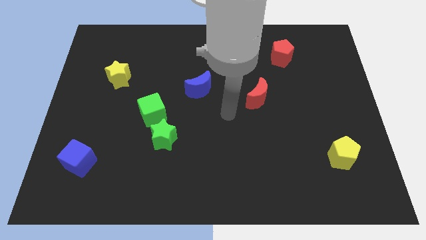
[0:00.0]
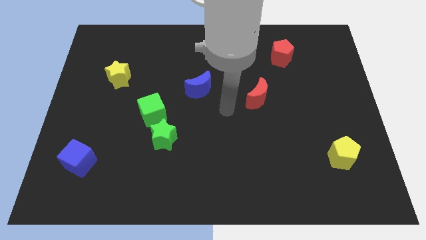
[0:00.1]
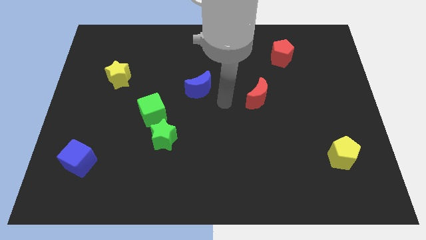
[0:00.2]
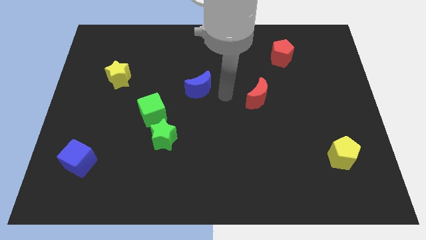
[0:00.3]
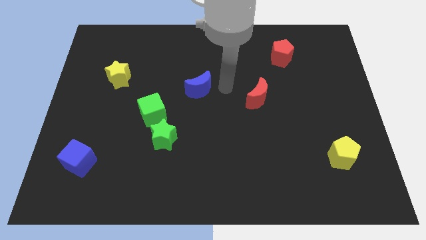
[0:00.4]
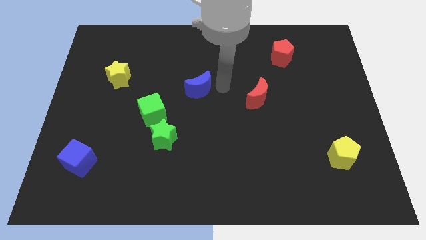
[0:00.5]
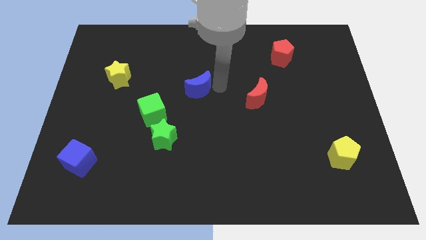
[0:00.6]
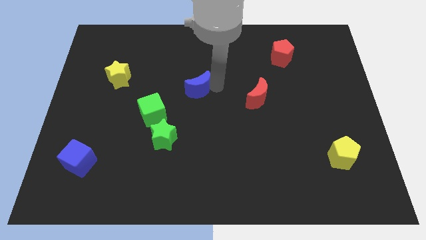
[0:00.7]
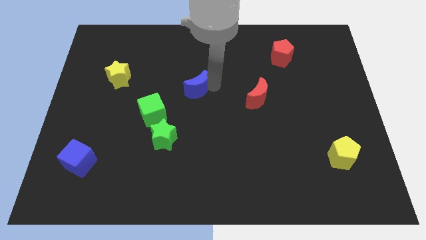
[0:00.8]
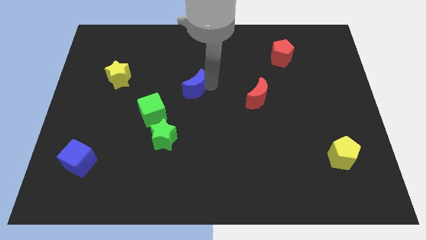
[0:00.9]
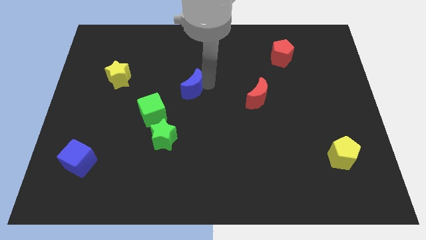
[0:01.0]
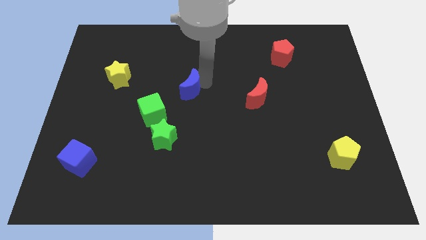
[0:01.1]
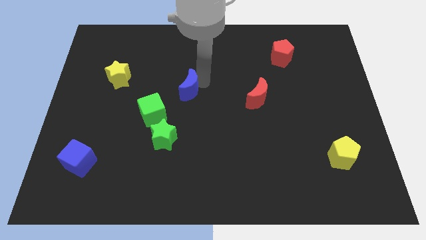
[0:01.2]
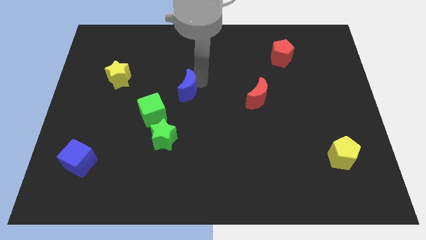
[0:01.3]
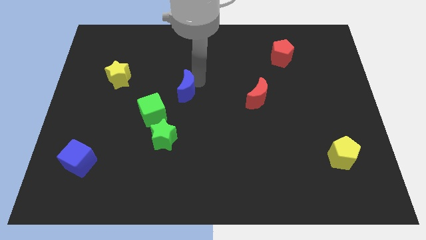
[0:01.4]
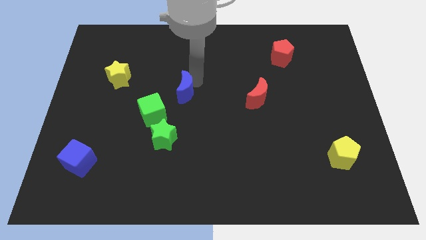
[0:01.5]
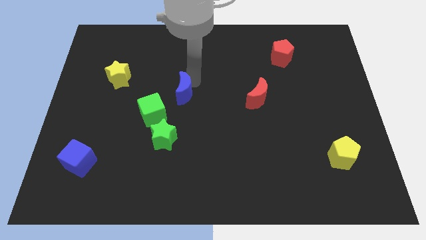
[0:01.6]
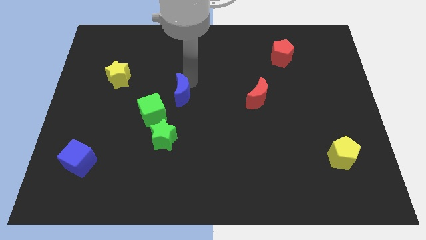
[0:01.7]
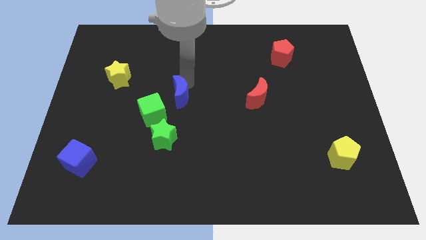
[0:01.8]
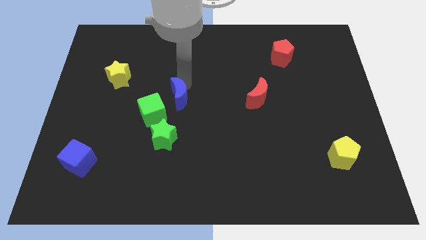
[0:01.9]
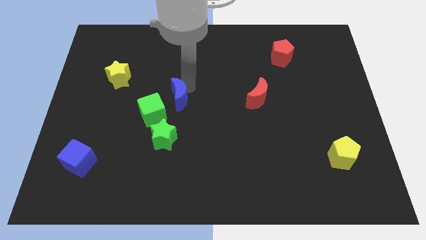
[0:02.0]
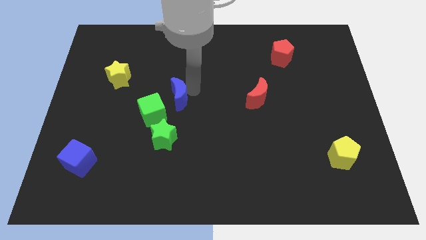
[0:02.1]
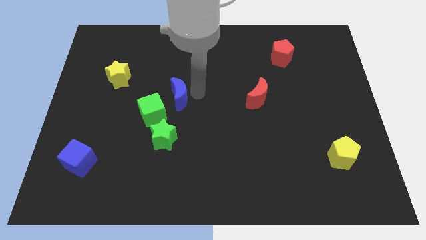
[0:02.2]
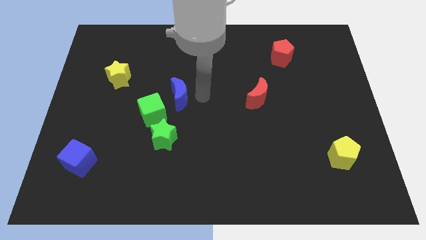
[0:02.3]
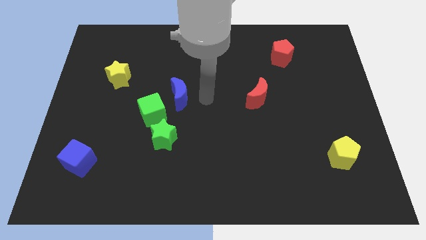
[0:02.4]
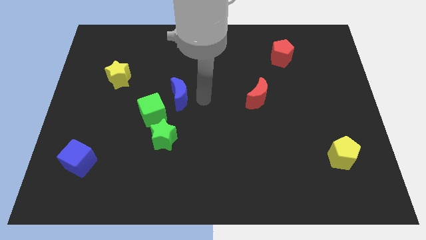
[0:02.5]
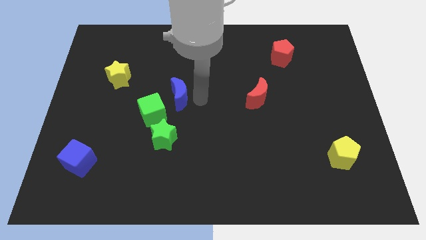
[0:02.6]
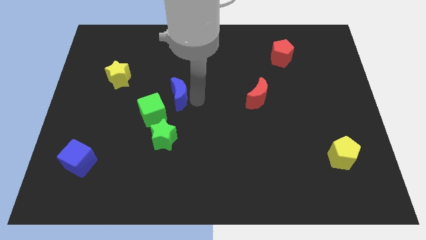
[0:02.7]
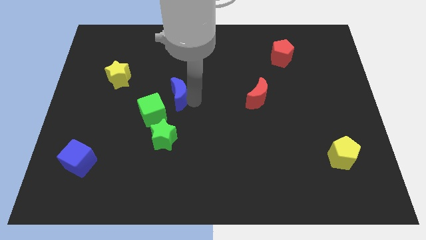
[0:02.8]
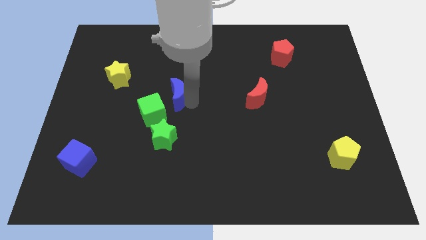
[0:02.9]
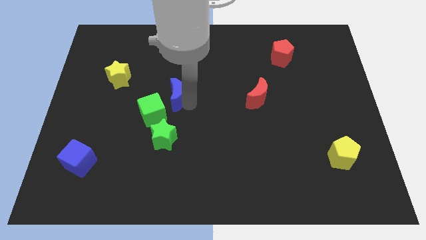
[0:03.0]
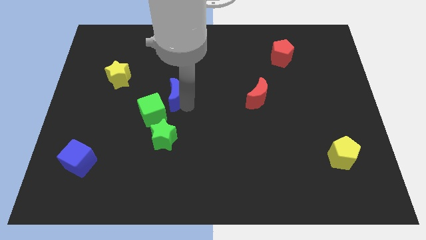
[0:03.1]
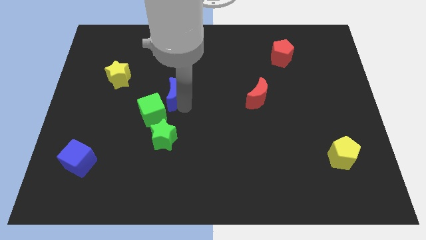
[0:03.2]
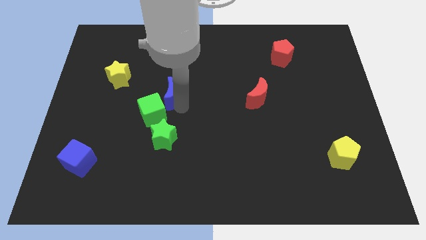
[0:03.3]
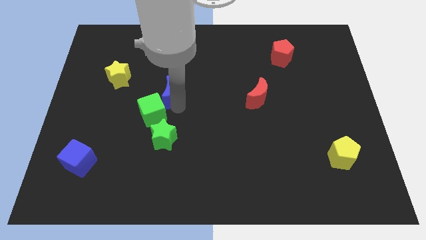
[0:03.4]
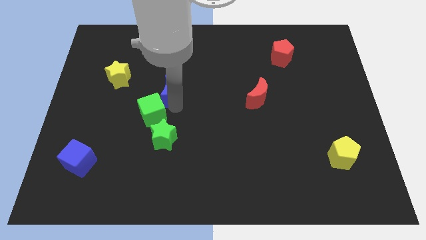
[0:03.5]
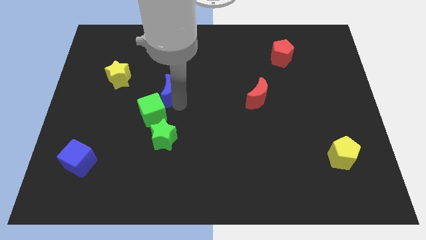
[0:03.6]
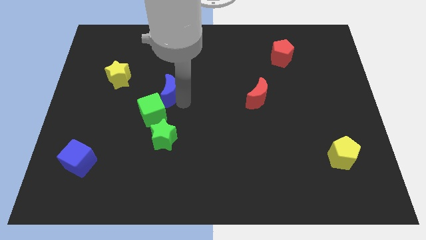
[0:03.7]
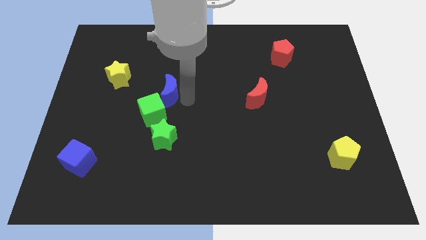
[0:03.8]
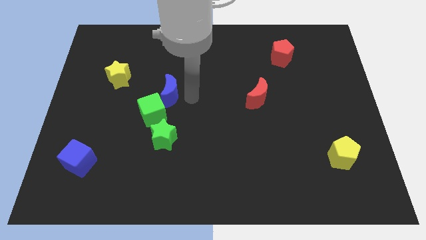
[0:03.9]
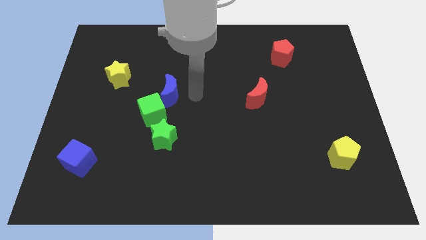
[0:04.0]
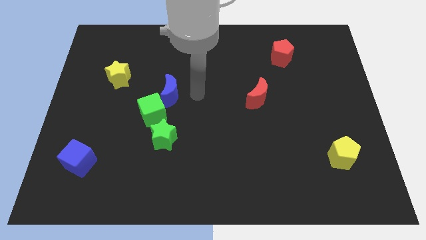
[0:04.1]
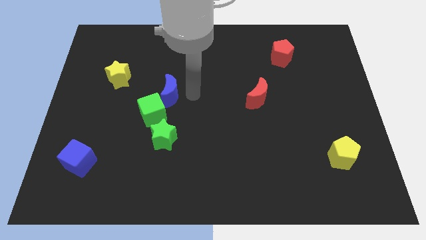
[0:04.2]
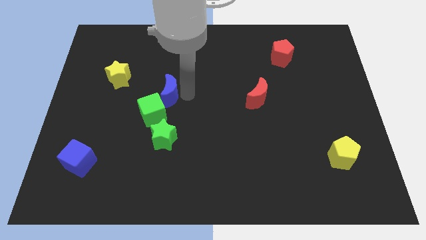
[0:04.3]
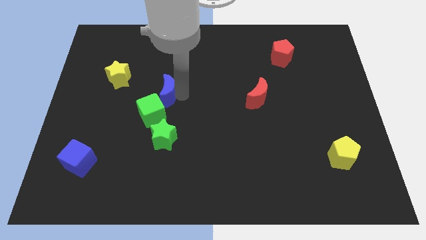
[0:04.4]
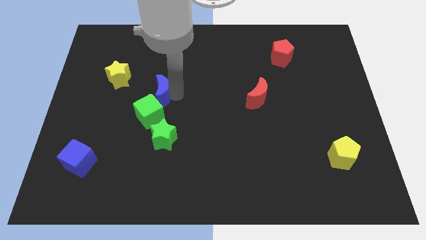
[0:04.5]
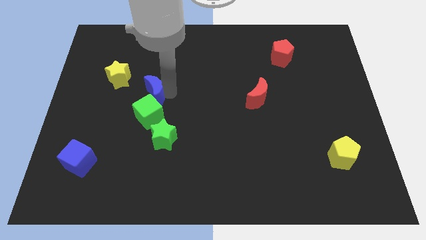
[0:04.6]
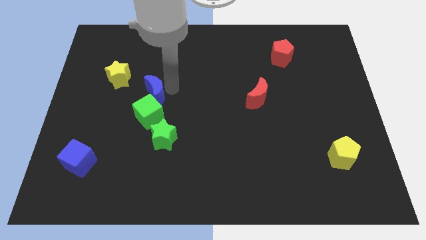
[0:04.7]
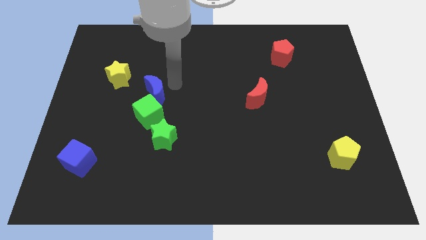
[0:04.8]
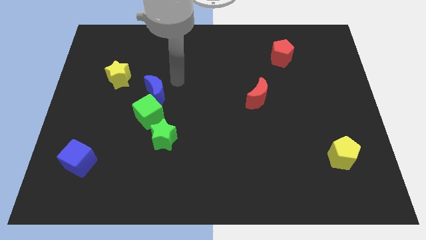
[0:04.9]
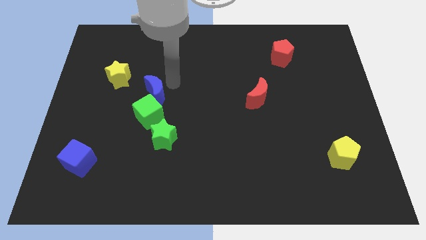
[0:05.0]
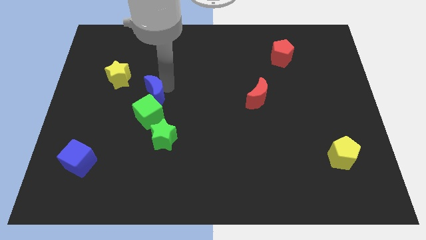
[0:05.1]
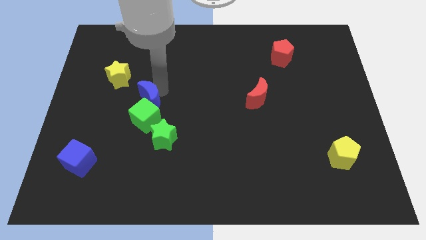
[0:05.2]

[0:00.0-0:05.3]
slide the blue moon a bit diagonally down and to the left

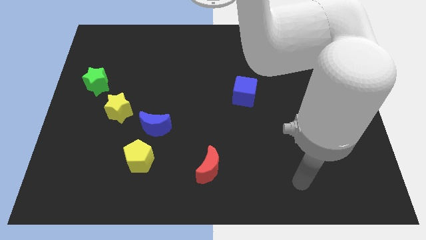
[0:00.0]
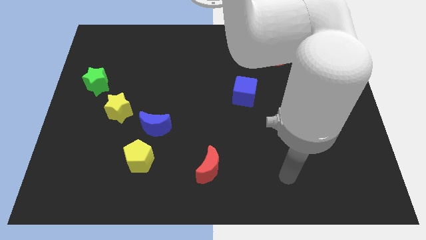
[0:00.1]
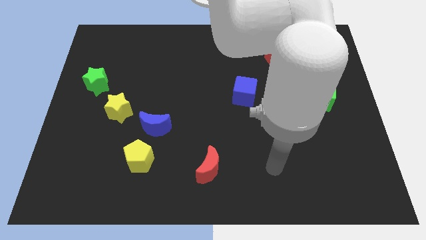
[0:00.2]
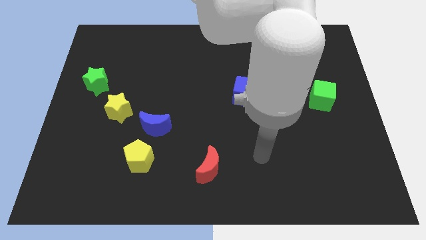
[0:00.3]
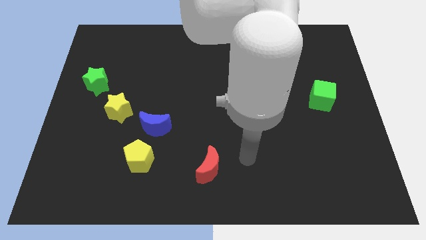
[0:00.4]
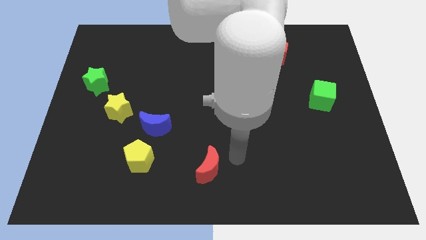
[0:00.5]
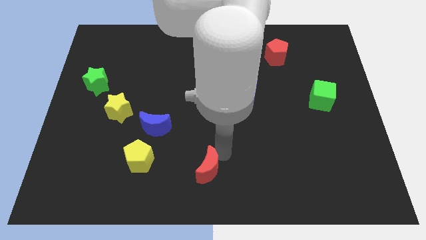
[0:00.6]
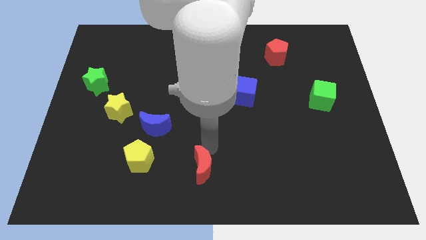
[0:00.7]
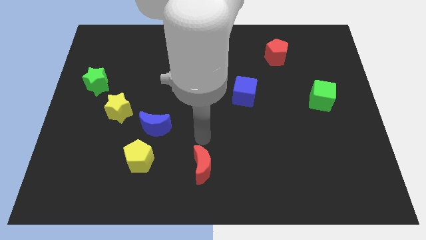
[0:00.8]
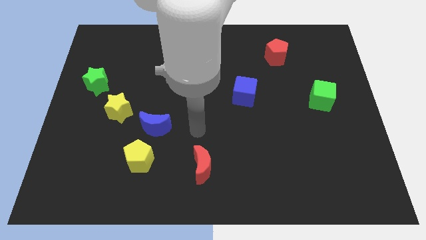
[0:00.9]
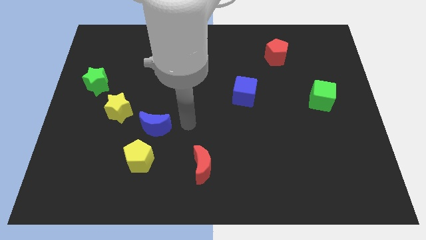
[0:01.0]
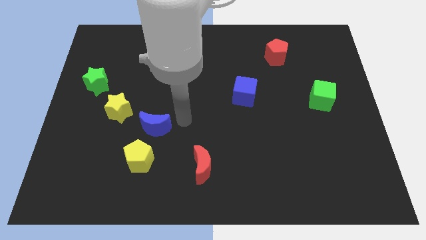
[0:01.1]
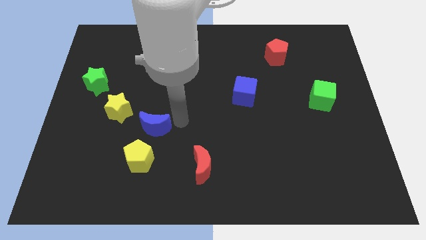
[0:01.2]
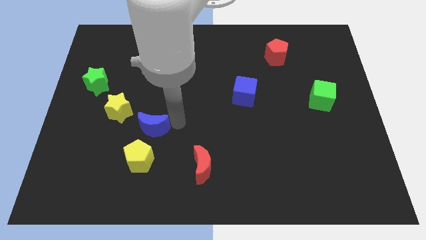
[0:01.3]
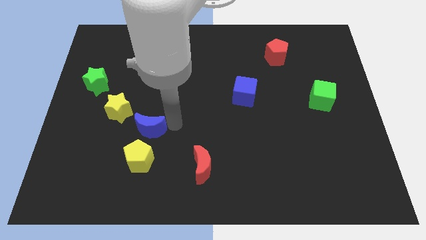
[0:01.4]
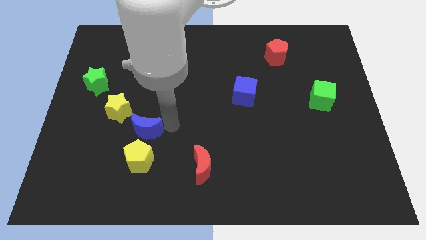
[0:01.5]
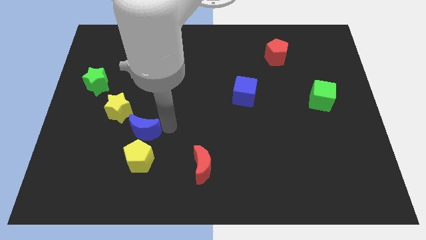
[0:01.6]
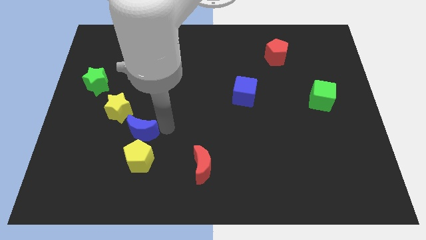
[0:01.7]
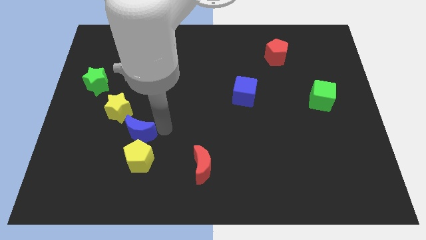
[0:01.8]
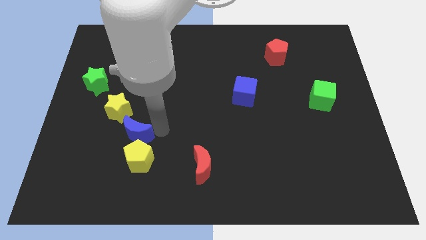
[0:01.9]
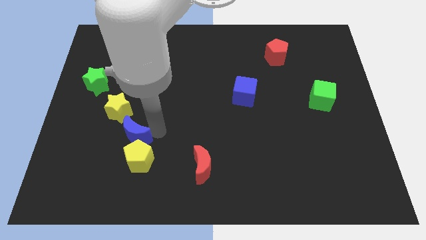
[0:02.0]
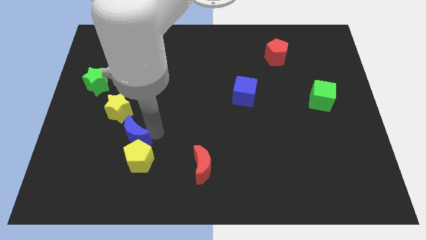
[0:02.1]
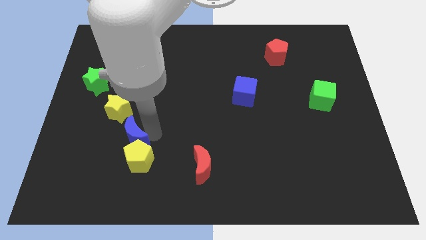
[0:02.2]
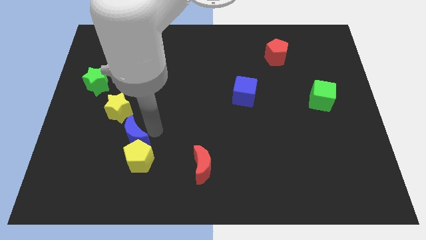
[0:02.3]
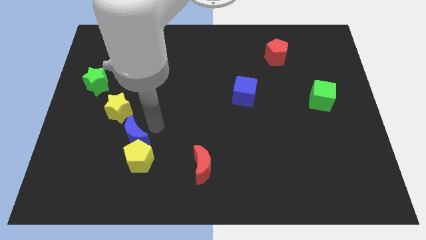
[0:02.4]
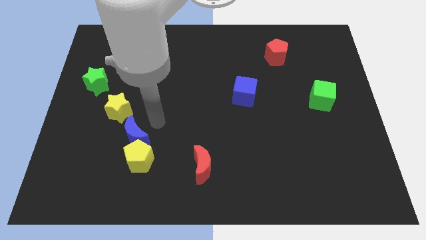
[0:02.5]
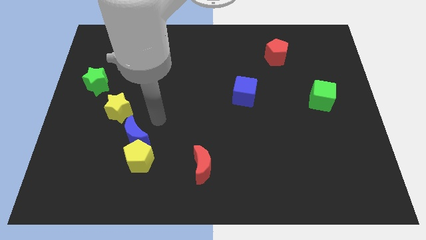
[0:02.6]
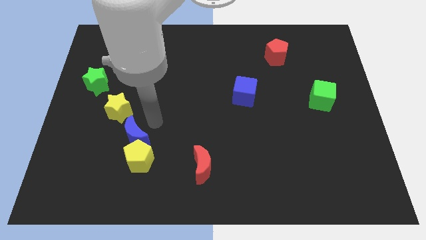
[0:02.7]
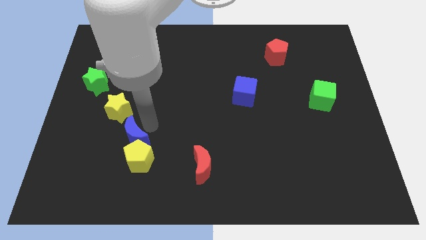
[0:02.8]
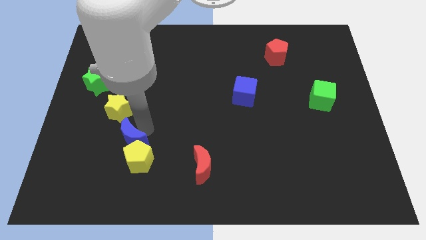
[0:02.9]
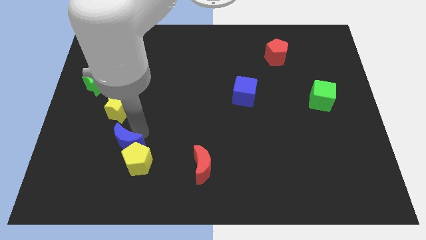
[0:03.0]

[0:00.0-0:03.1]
slide the blue moon a bit downwards and left
